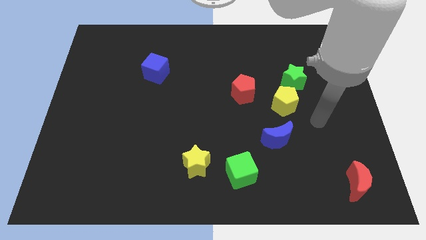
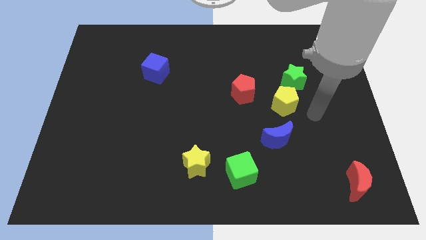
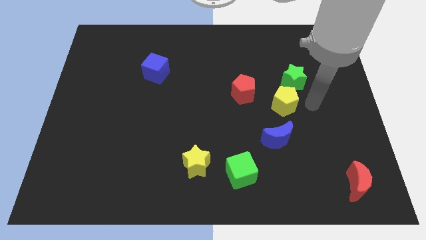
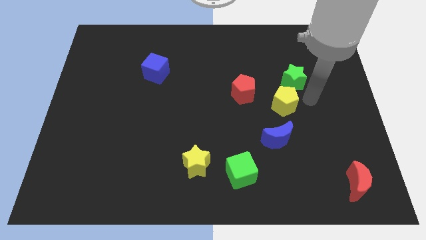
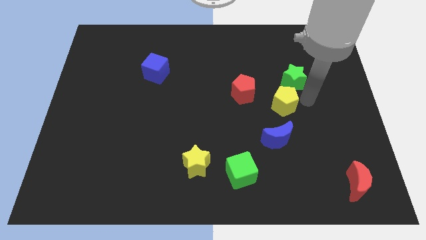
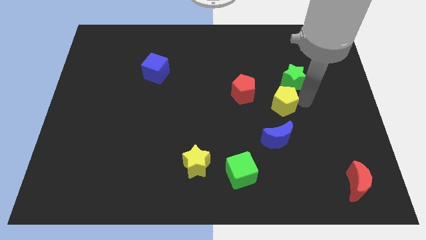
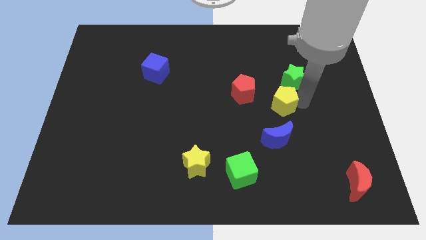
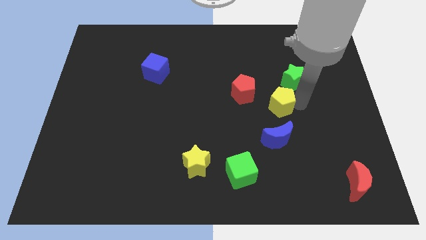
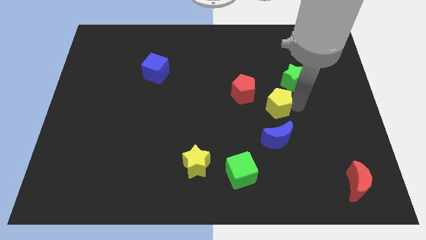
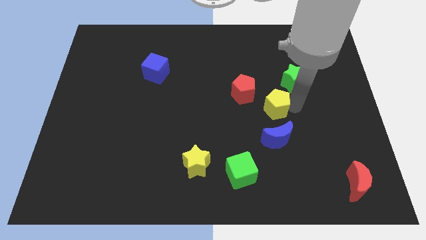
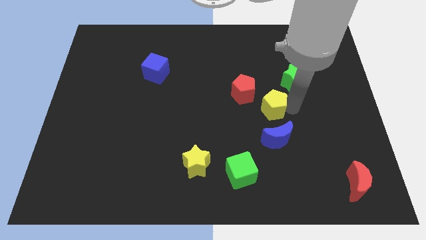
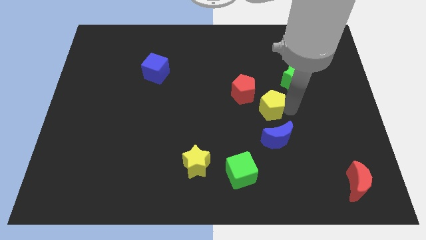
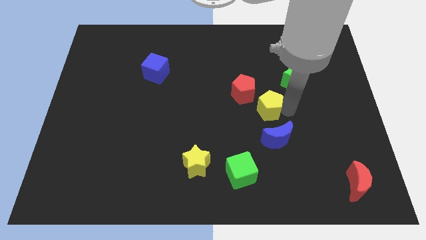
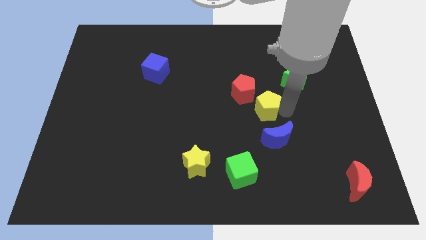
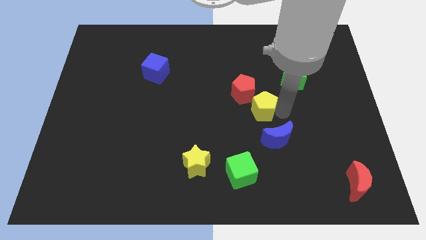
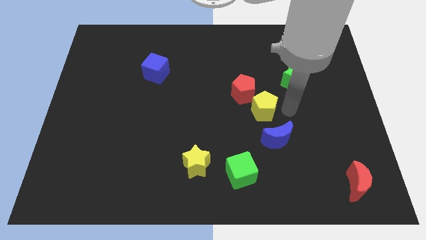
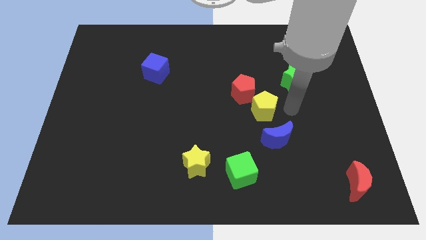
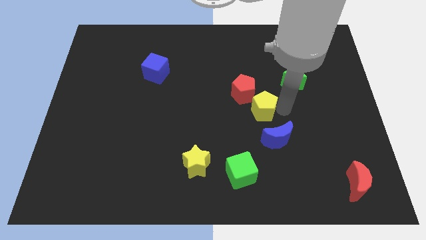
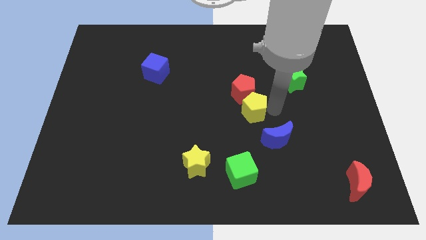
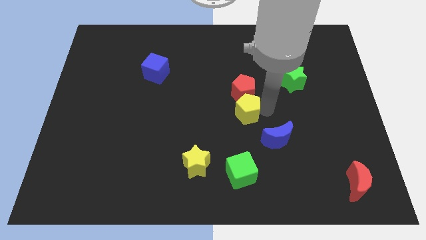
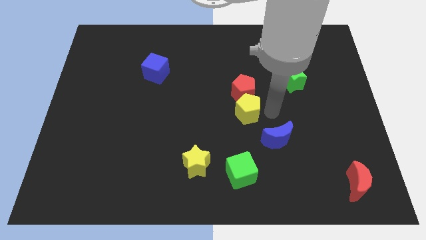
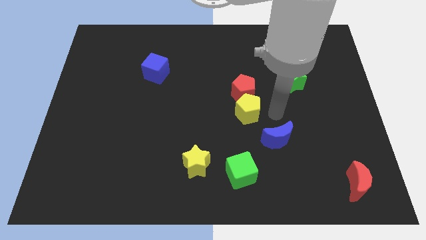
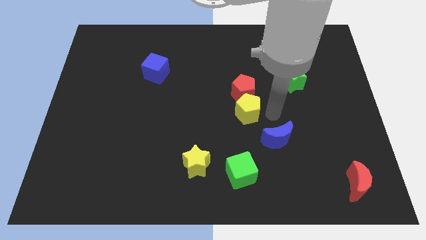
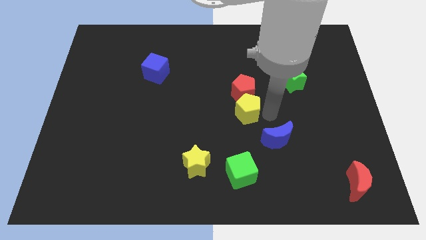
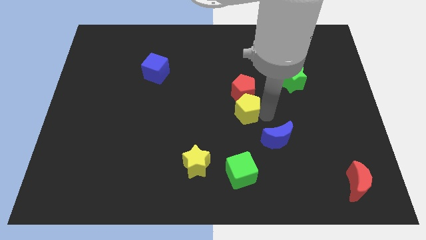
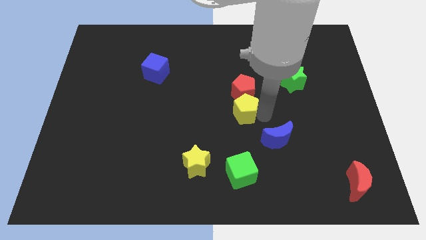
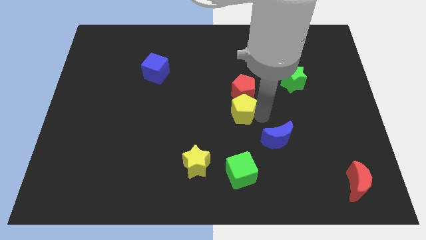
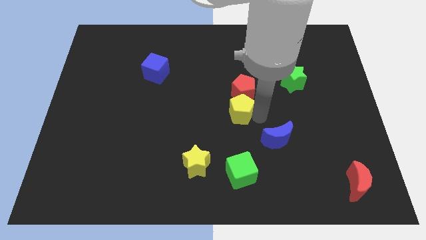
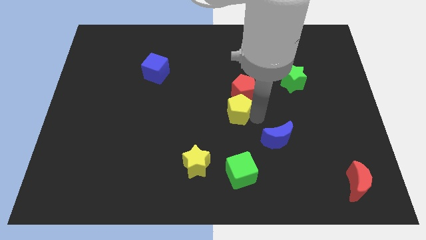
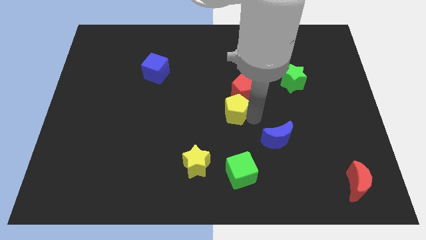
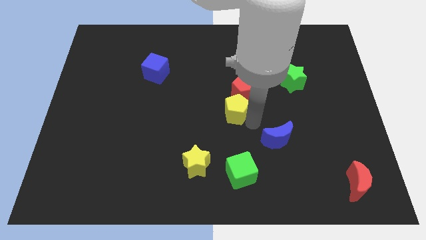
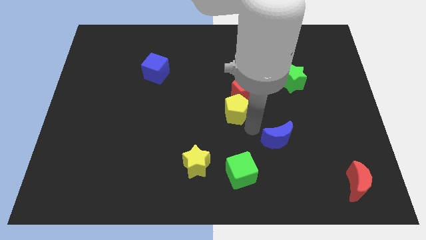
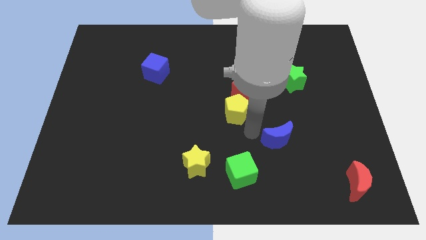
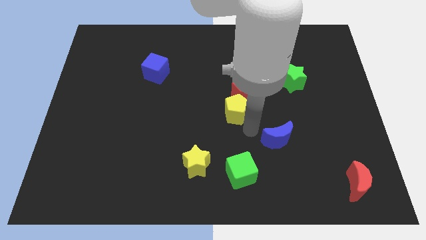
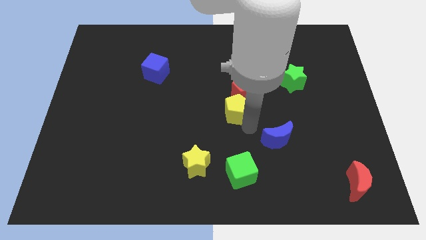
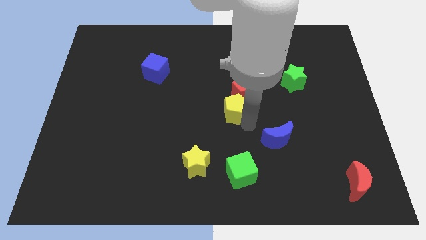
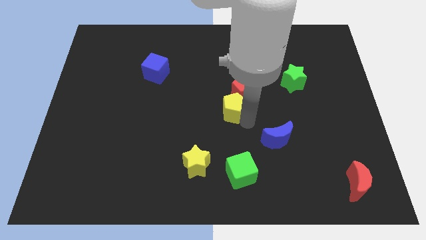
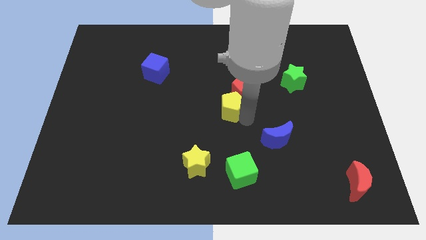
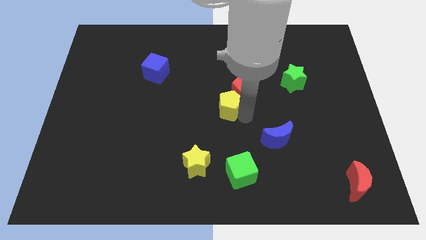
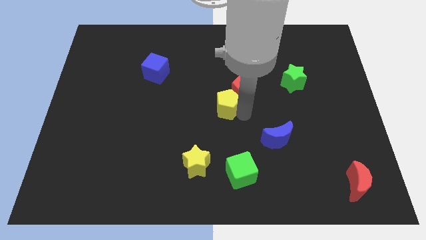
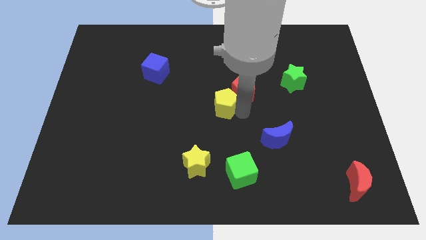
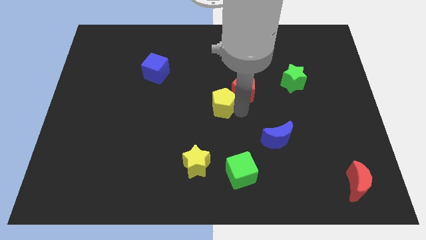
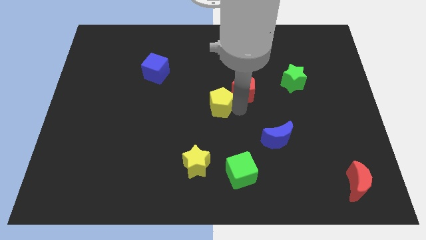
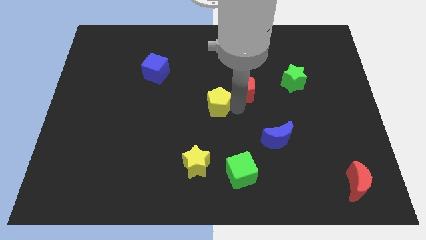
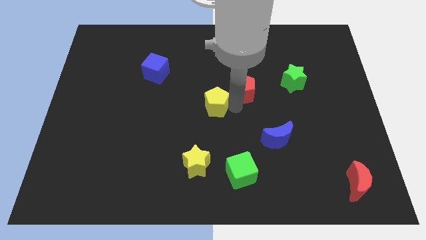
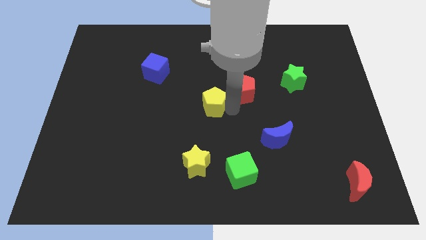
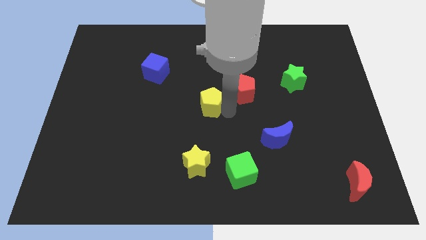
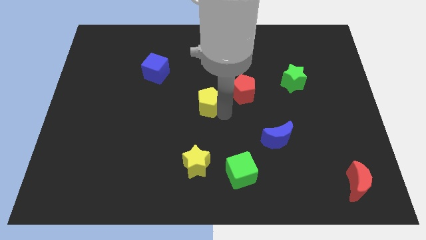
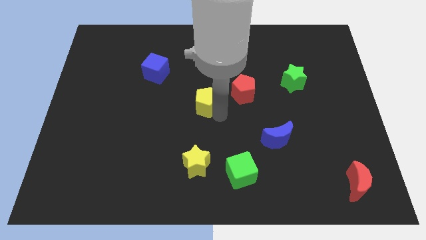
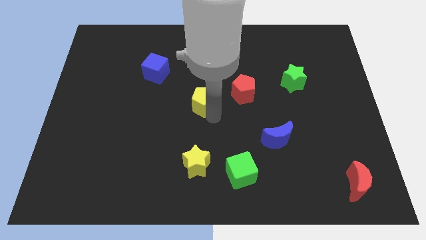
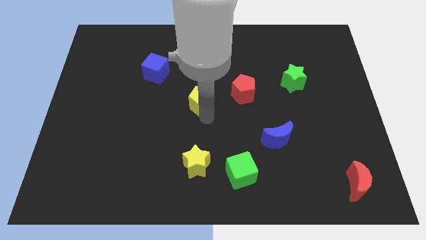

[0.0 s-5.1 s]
push the yellow pentagon to the left

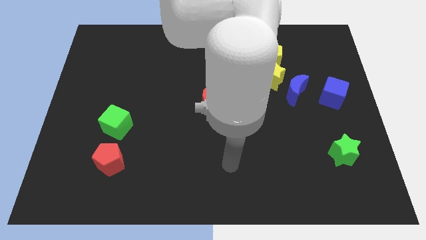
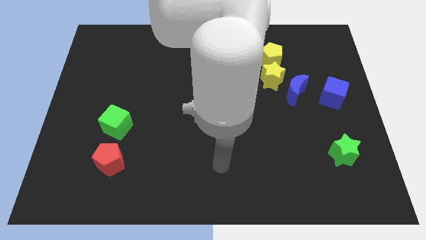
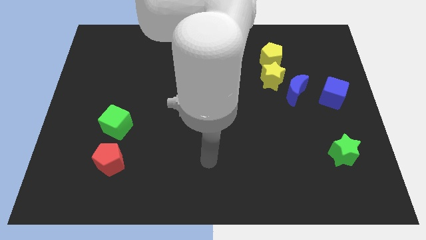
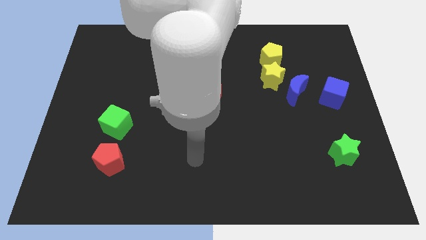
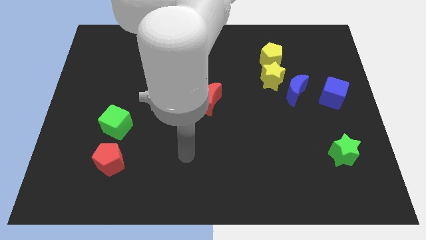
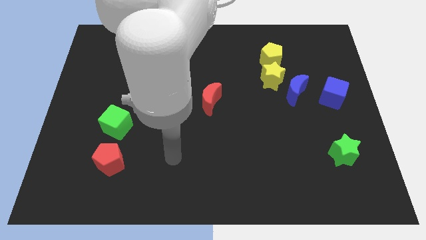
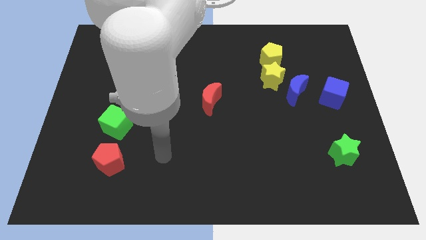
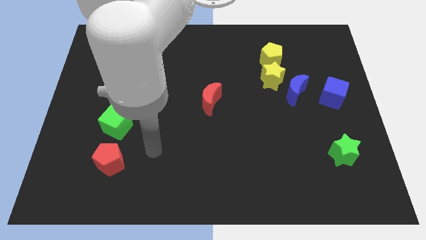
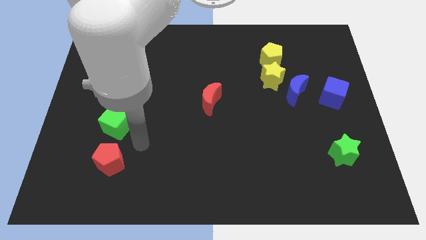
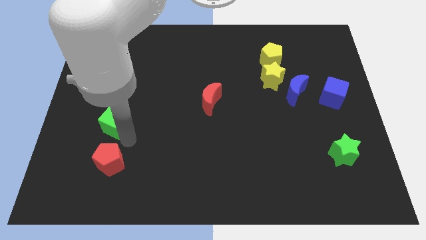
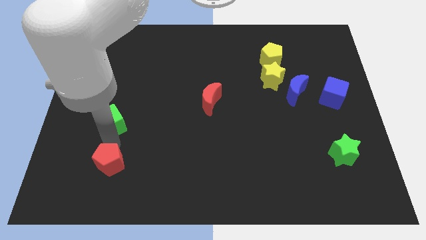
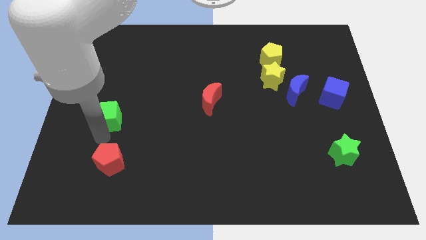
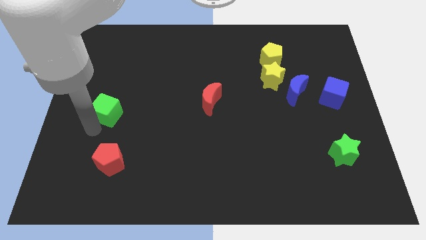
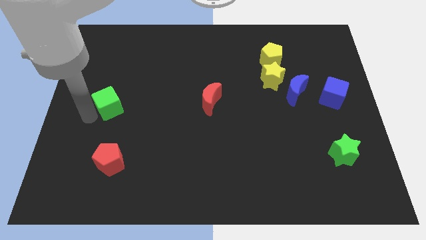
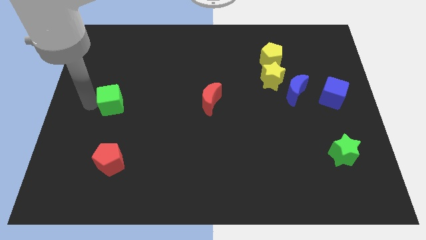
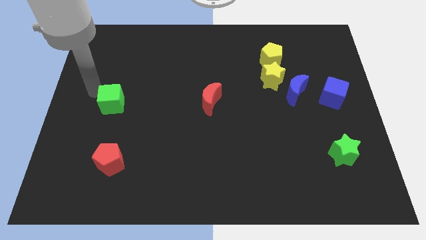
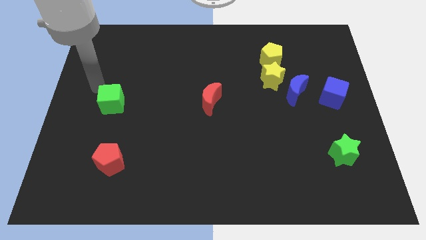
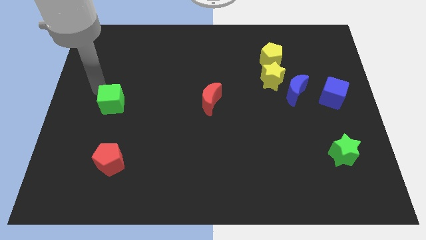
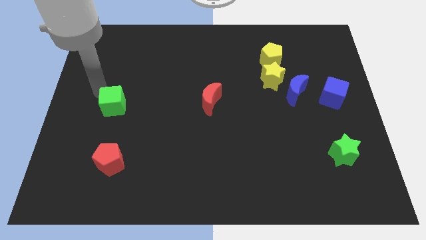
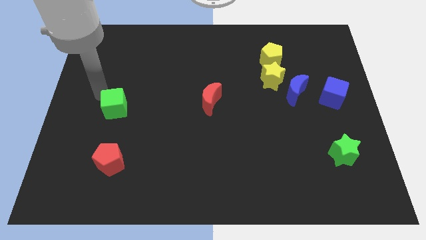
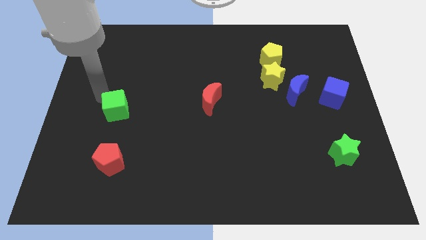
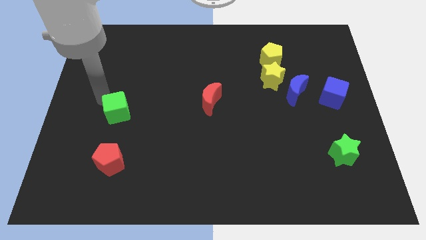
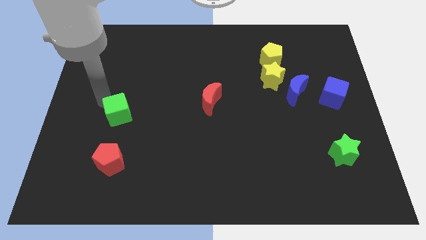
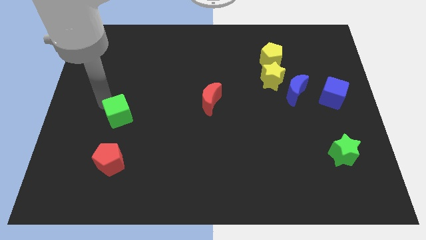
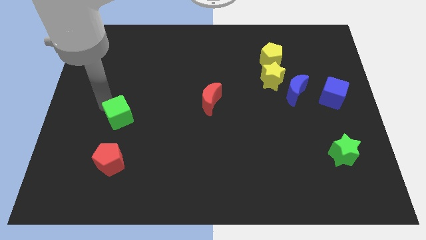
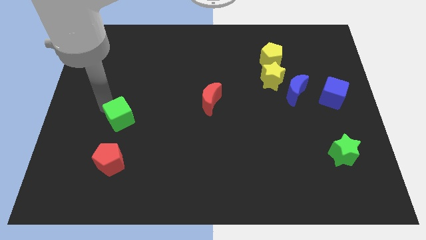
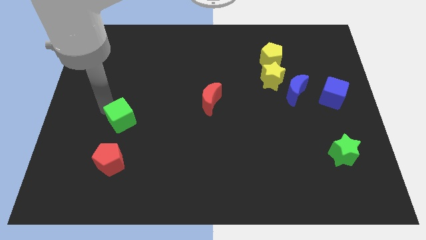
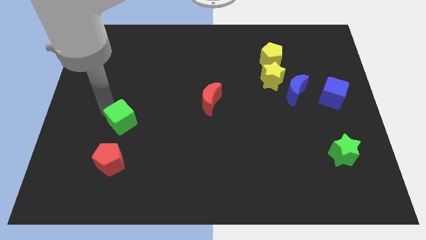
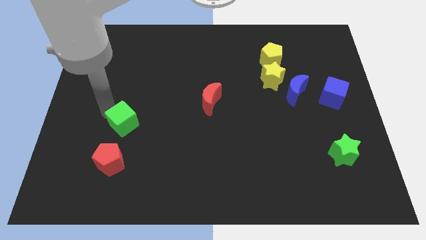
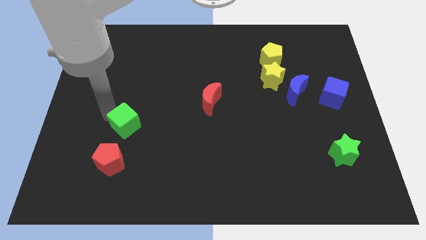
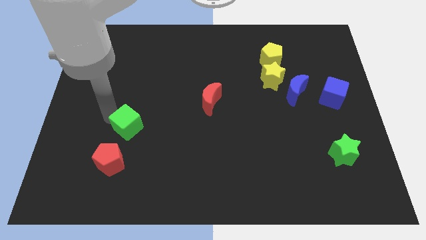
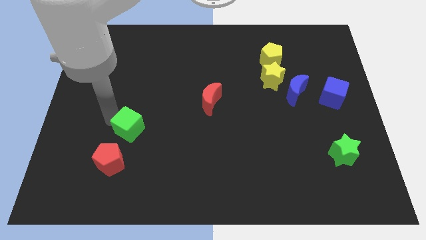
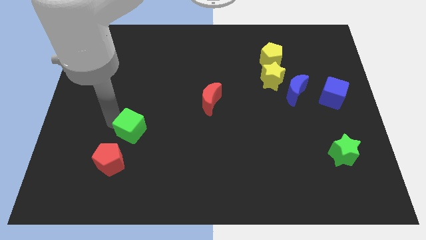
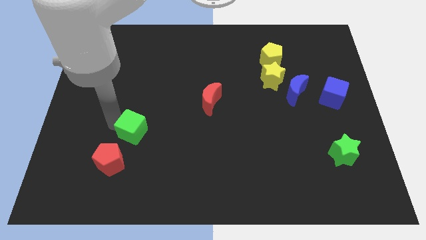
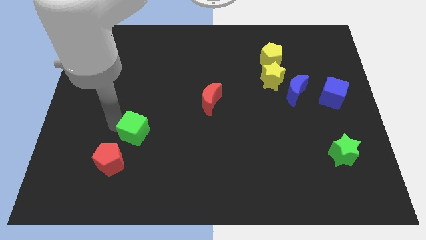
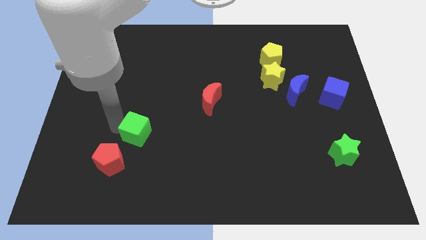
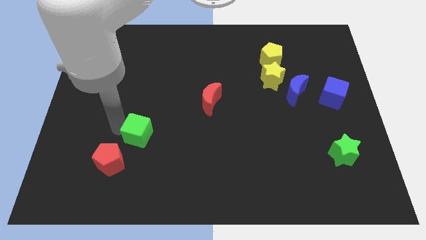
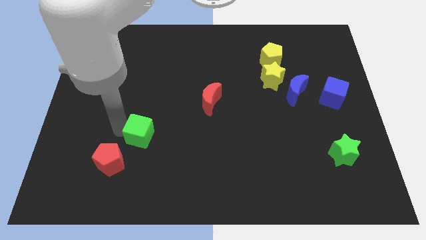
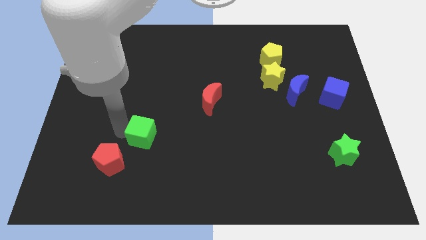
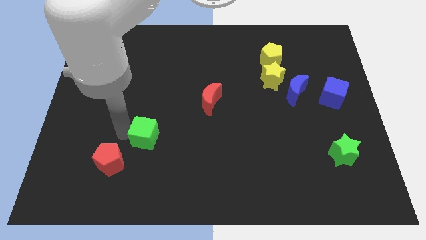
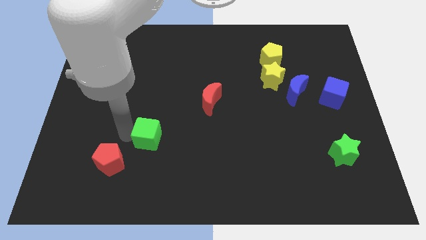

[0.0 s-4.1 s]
move the green cube right slightly
